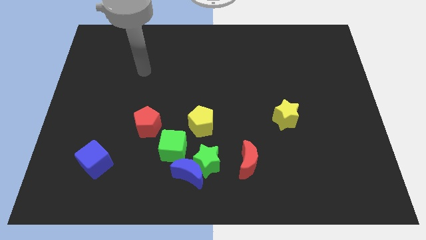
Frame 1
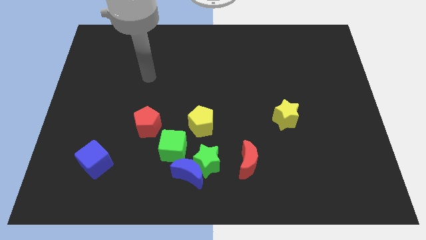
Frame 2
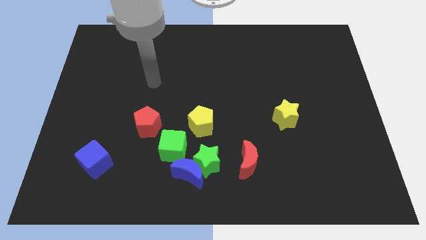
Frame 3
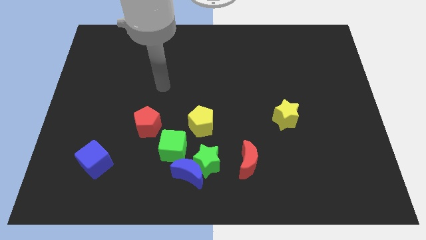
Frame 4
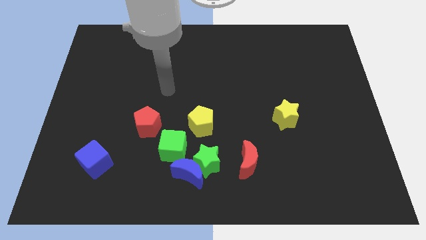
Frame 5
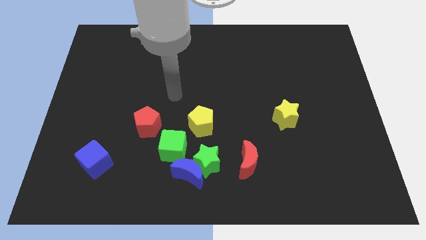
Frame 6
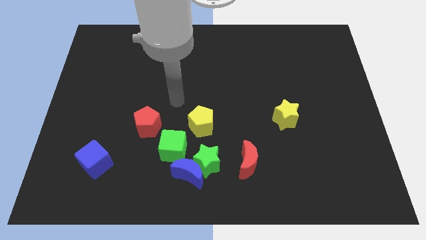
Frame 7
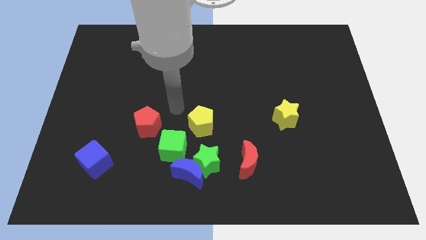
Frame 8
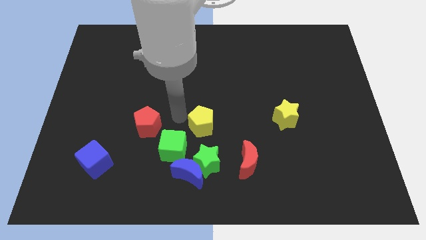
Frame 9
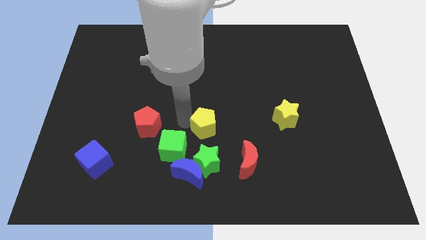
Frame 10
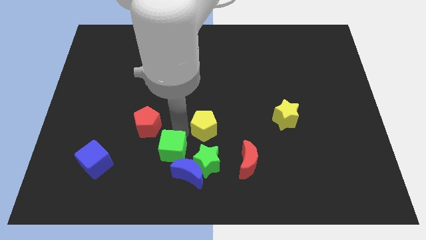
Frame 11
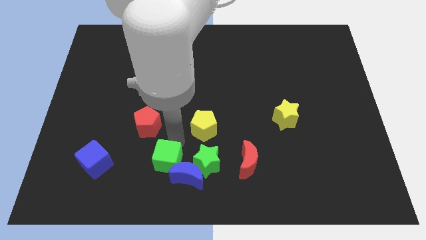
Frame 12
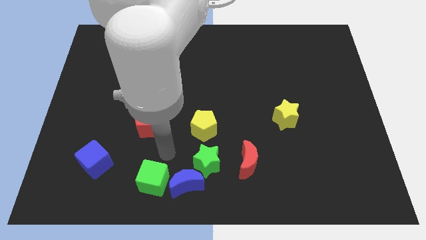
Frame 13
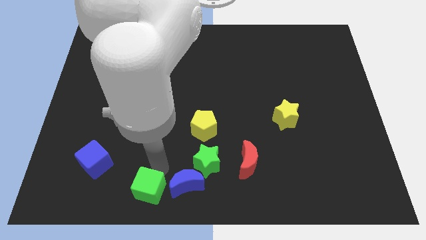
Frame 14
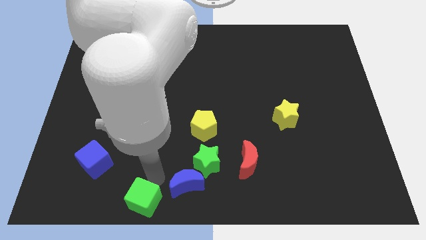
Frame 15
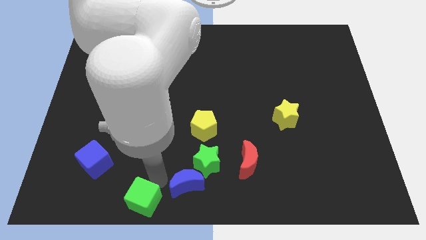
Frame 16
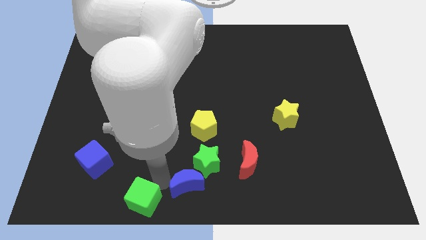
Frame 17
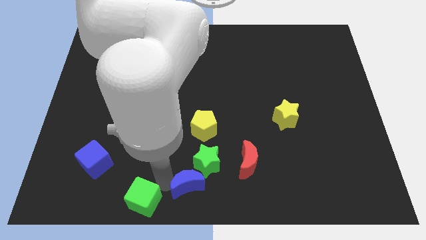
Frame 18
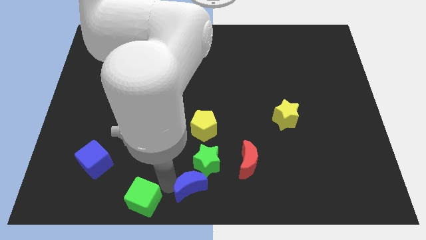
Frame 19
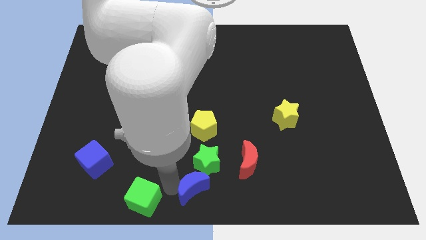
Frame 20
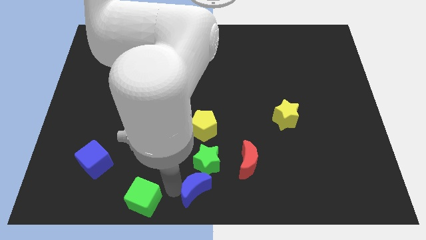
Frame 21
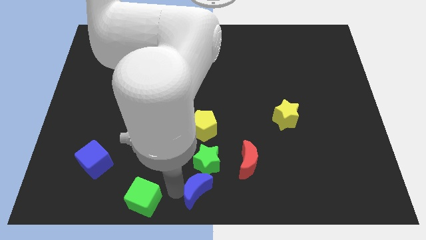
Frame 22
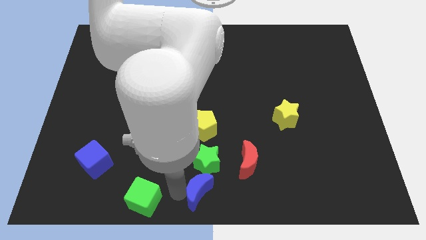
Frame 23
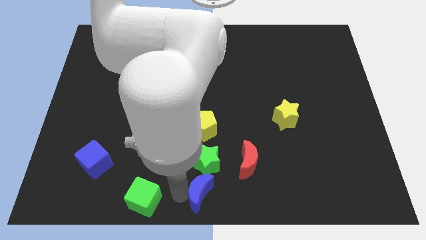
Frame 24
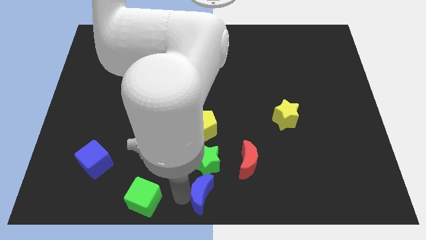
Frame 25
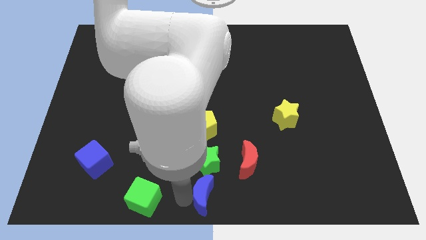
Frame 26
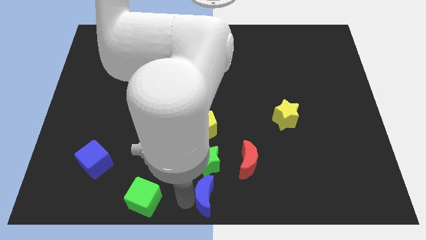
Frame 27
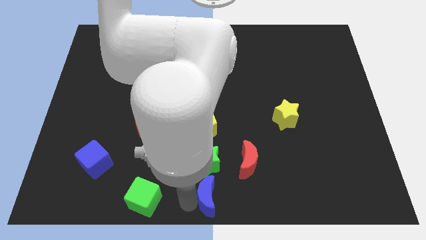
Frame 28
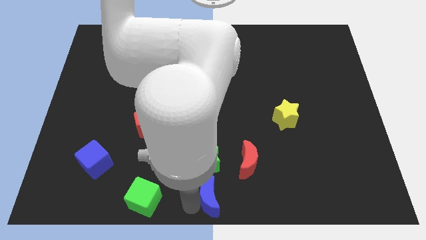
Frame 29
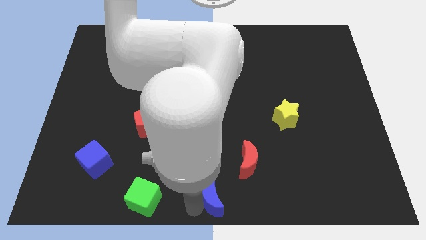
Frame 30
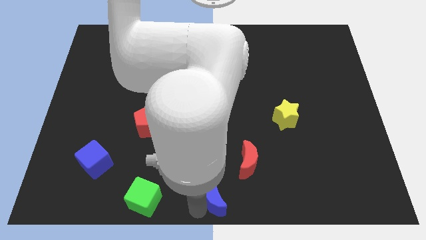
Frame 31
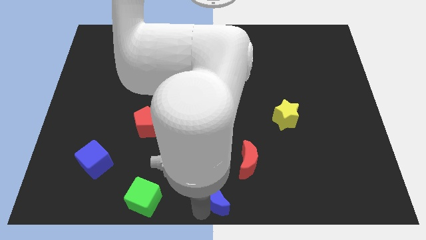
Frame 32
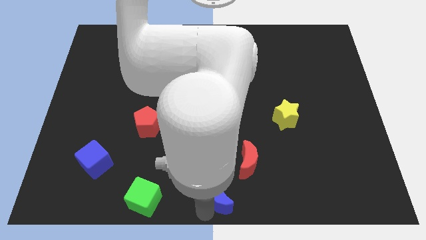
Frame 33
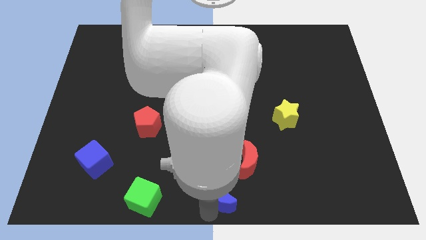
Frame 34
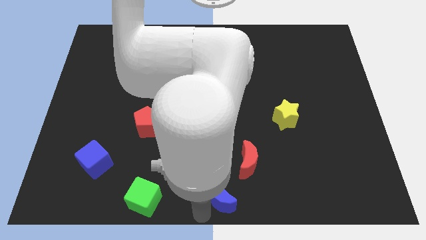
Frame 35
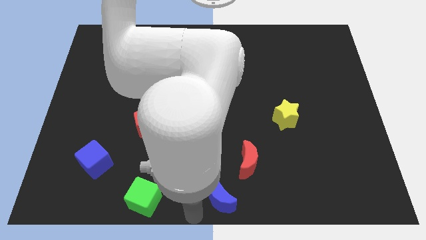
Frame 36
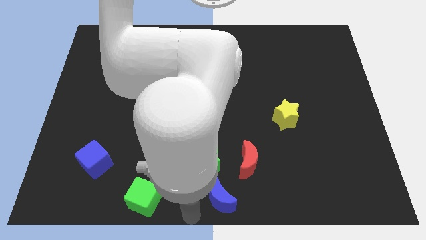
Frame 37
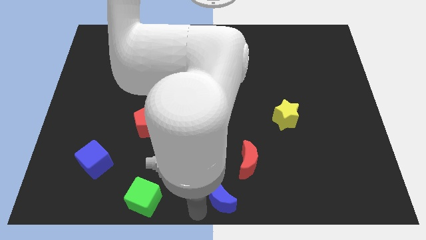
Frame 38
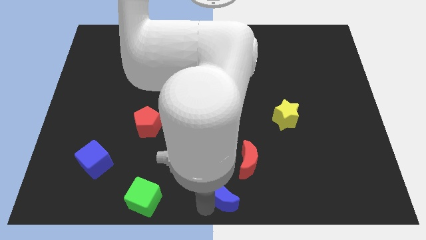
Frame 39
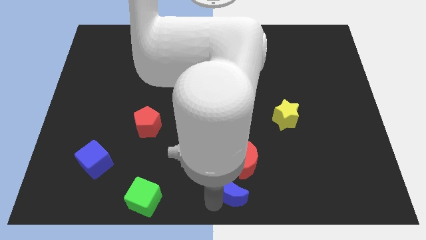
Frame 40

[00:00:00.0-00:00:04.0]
push the blue moon to the right a bit

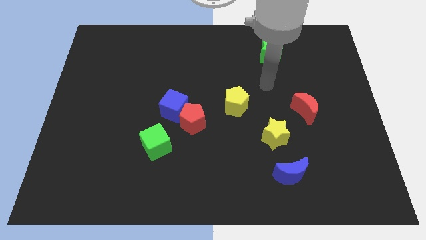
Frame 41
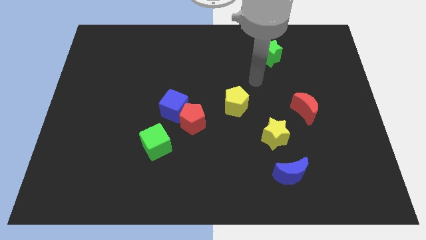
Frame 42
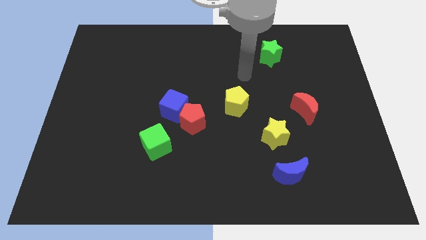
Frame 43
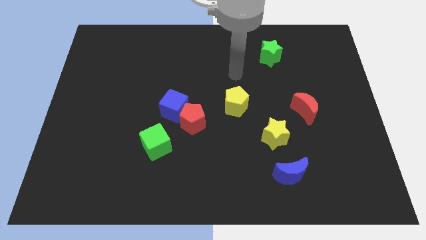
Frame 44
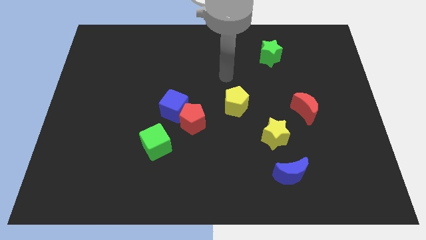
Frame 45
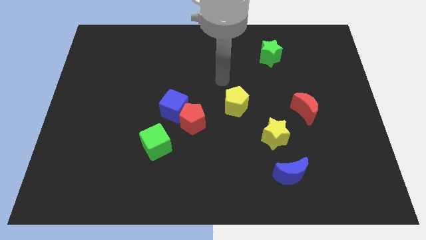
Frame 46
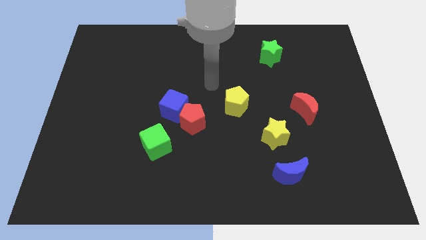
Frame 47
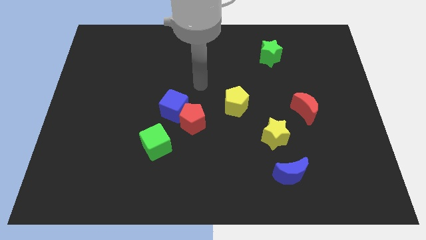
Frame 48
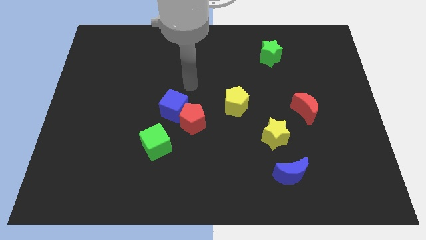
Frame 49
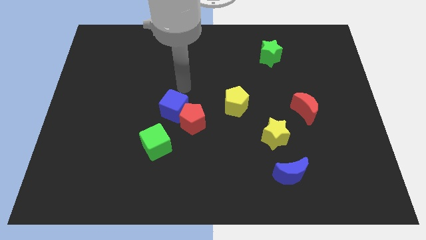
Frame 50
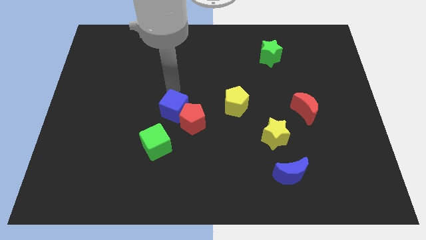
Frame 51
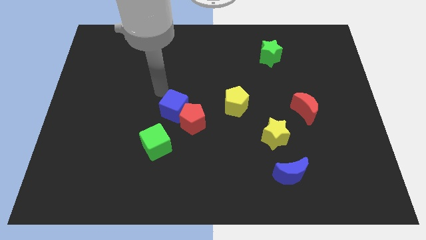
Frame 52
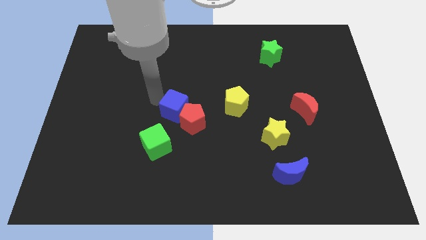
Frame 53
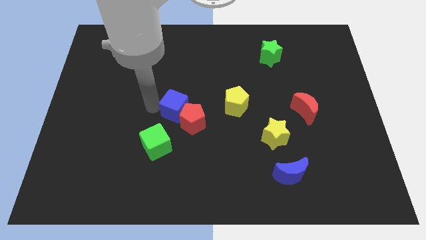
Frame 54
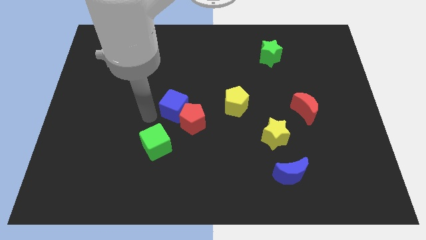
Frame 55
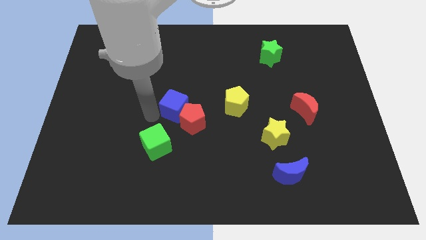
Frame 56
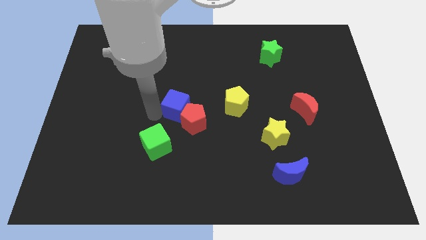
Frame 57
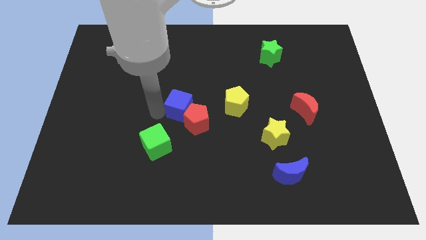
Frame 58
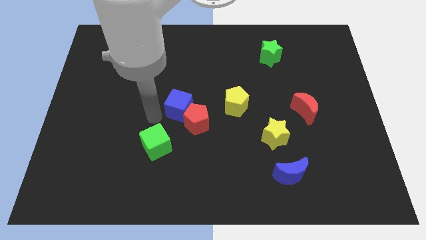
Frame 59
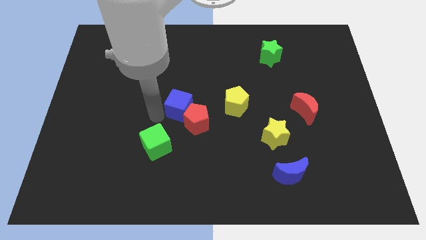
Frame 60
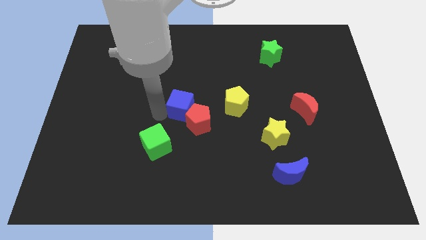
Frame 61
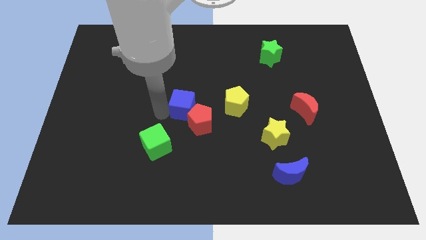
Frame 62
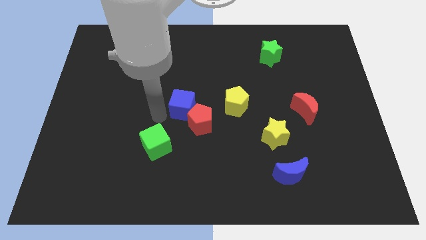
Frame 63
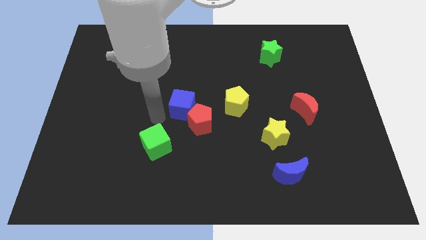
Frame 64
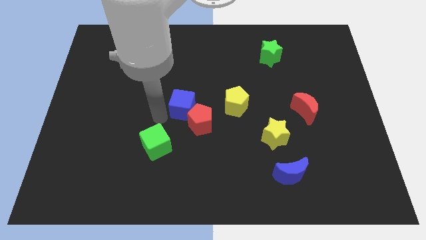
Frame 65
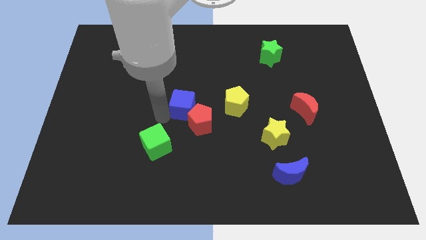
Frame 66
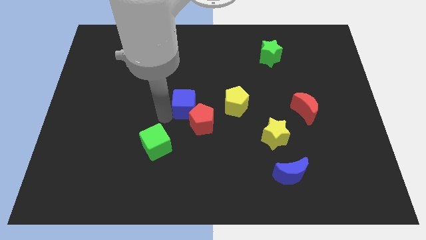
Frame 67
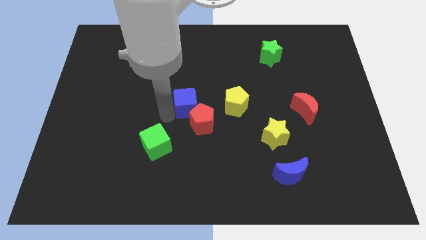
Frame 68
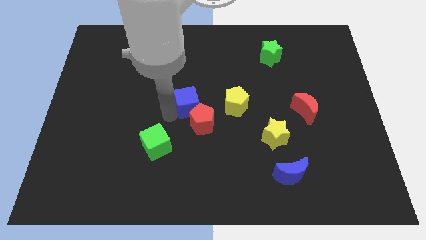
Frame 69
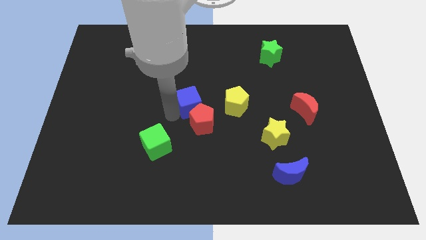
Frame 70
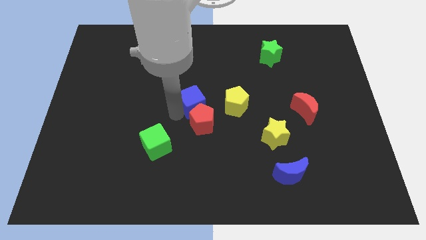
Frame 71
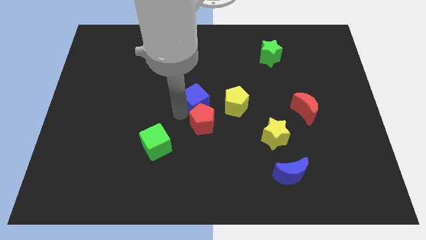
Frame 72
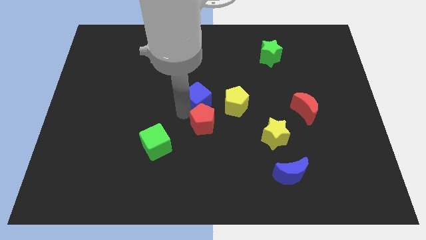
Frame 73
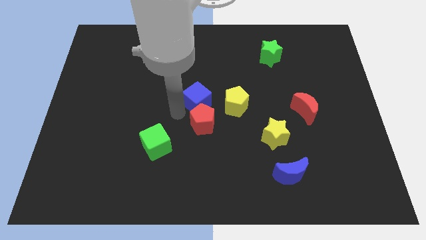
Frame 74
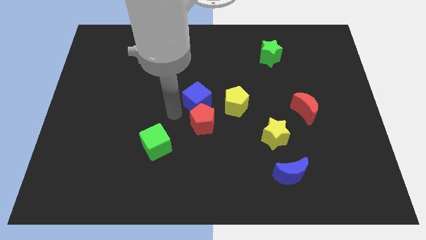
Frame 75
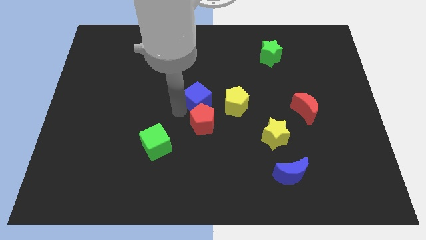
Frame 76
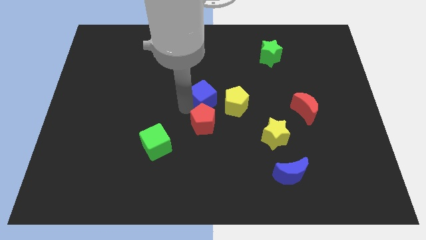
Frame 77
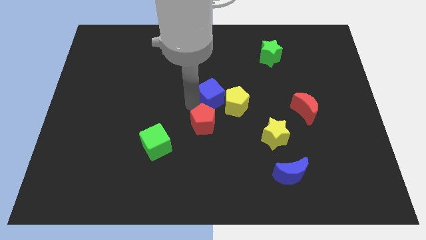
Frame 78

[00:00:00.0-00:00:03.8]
push the blue cube a little bit upwards and then to the right
